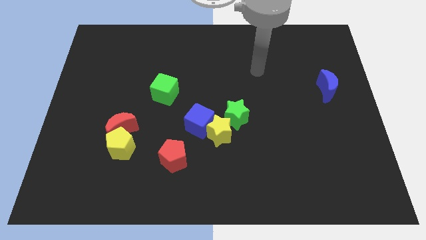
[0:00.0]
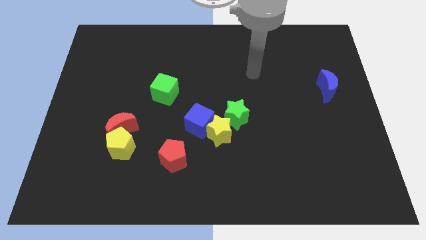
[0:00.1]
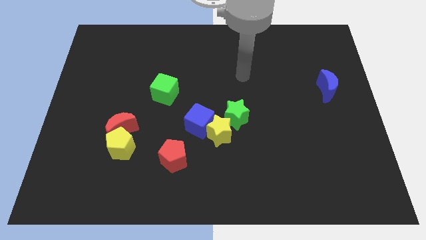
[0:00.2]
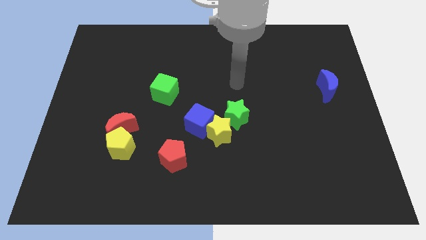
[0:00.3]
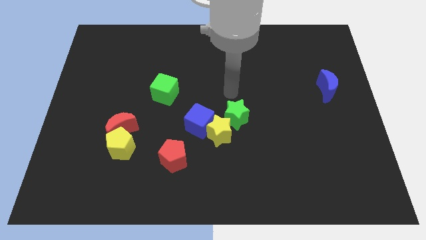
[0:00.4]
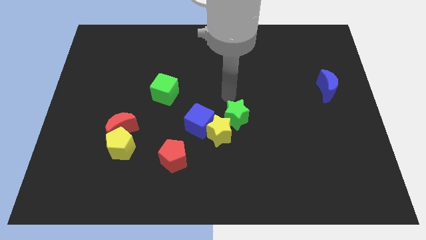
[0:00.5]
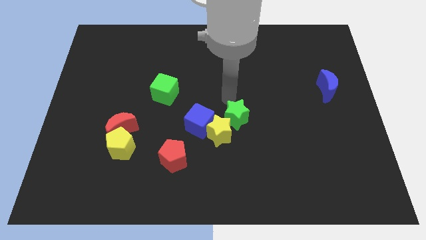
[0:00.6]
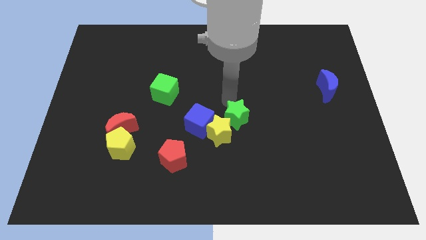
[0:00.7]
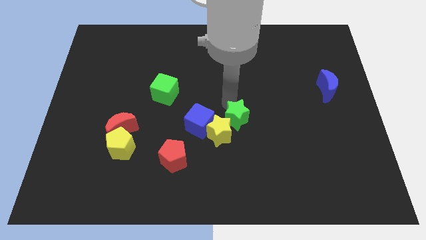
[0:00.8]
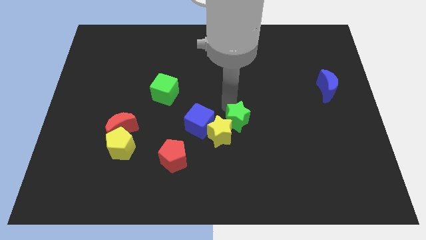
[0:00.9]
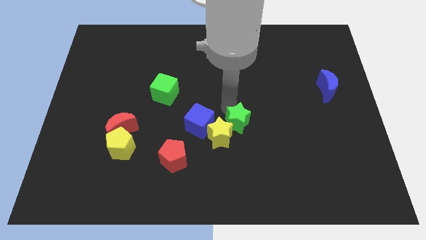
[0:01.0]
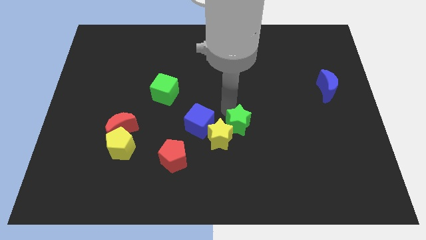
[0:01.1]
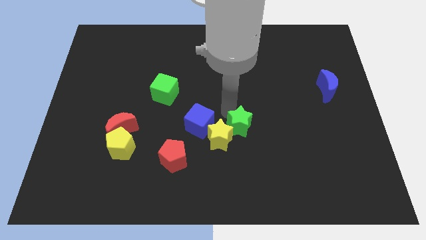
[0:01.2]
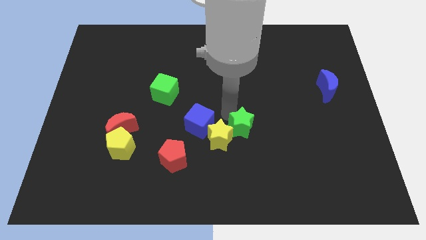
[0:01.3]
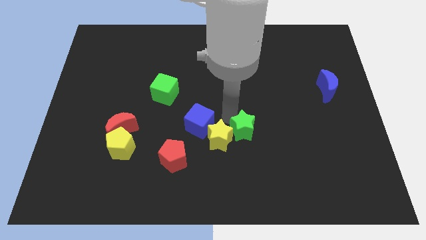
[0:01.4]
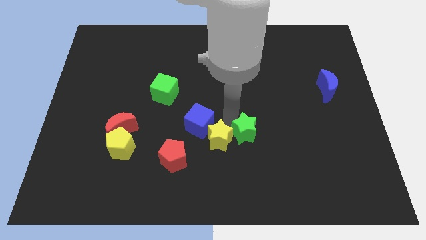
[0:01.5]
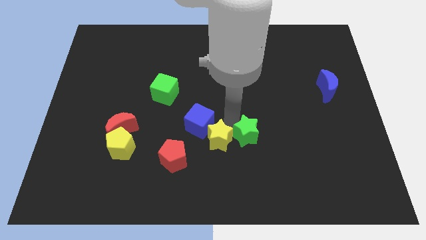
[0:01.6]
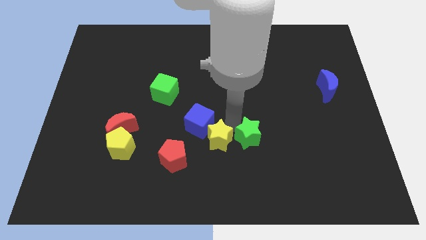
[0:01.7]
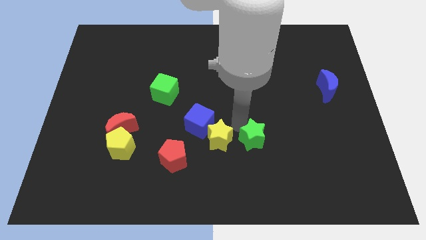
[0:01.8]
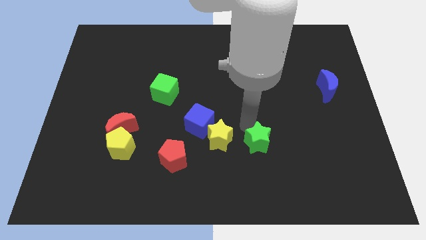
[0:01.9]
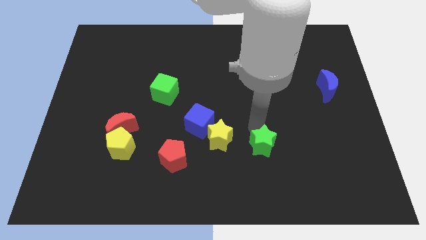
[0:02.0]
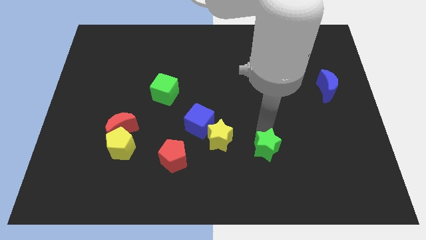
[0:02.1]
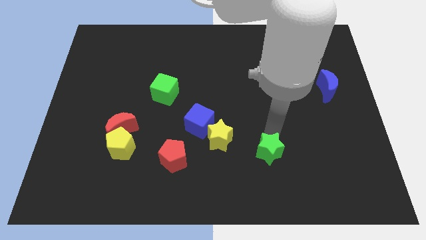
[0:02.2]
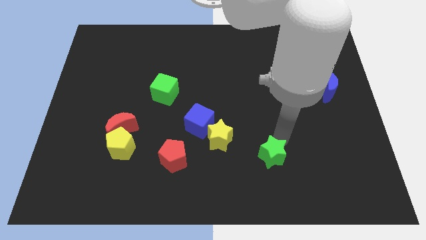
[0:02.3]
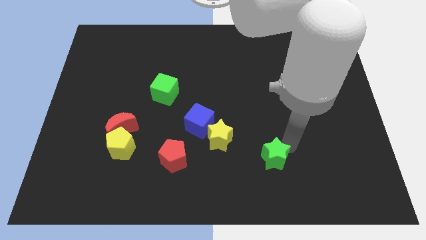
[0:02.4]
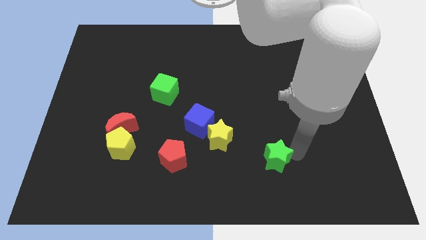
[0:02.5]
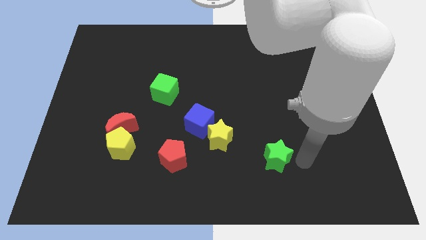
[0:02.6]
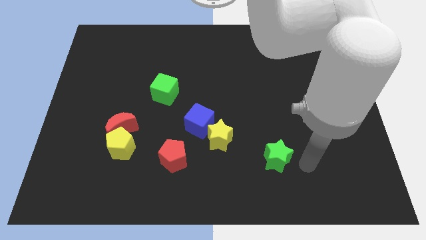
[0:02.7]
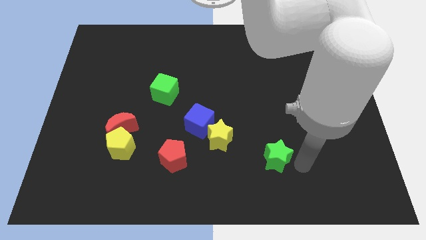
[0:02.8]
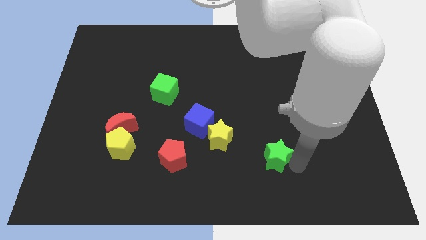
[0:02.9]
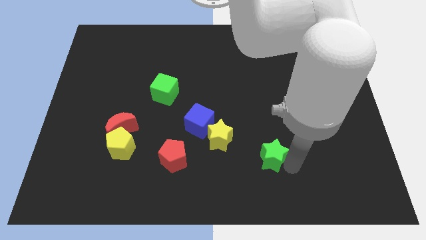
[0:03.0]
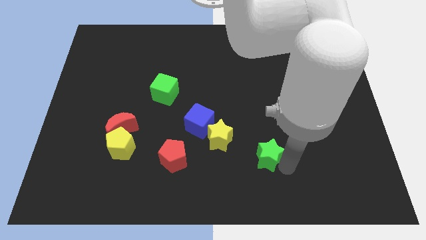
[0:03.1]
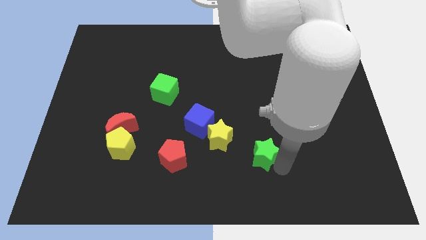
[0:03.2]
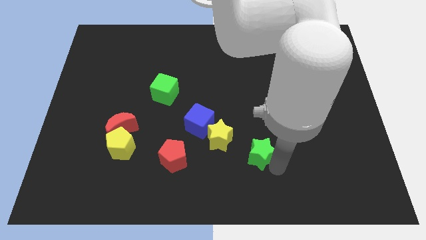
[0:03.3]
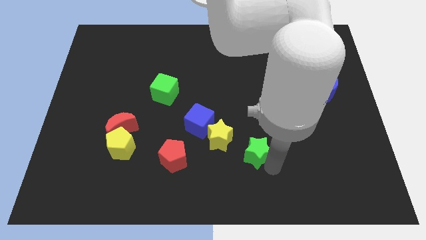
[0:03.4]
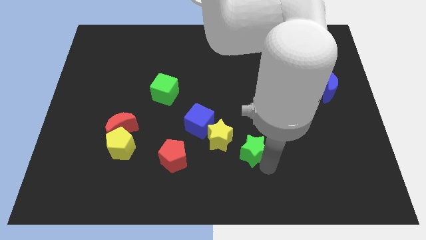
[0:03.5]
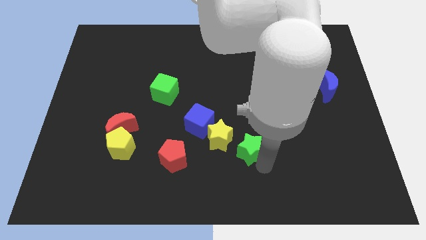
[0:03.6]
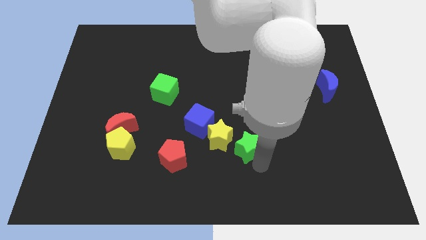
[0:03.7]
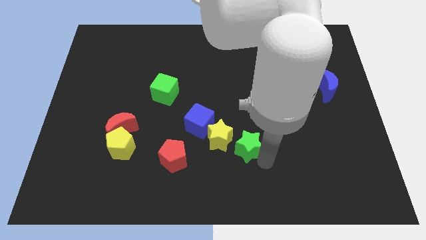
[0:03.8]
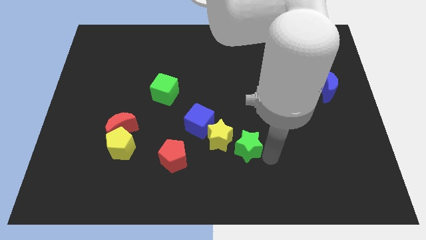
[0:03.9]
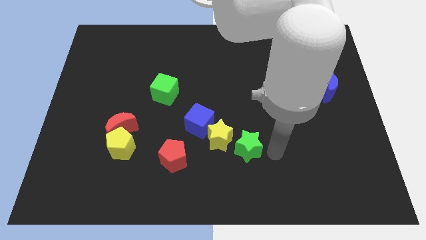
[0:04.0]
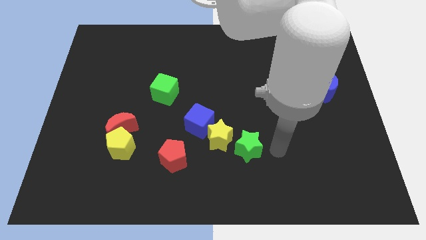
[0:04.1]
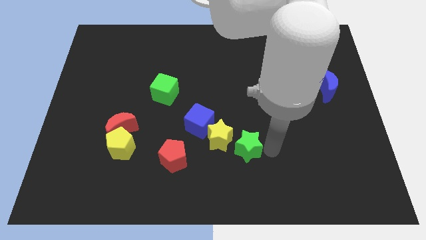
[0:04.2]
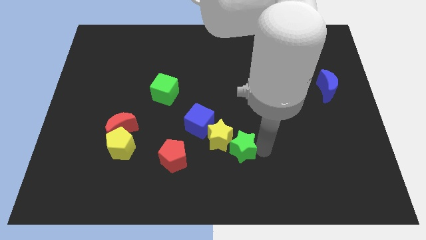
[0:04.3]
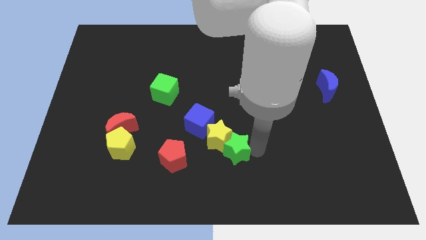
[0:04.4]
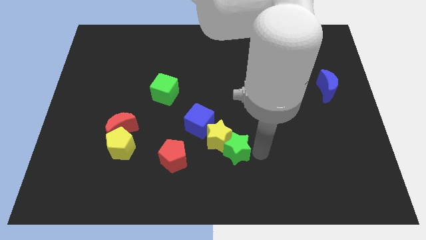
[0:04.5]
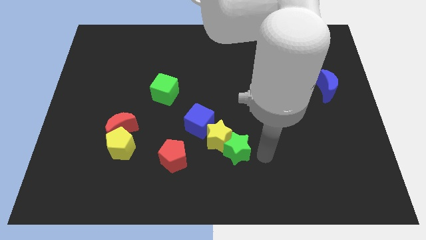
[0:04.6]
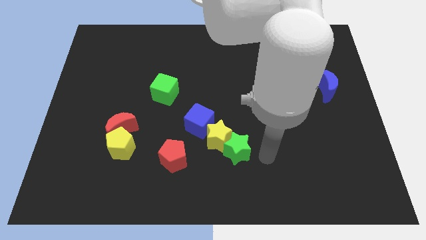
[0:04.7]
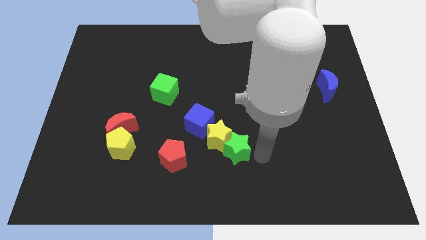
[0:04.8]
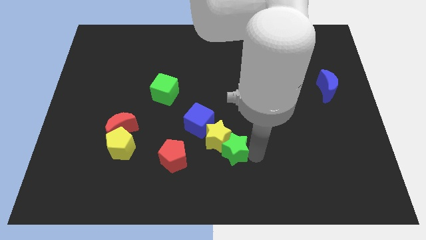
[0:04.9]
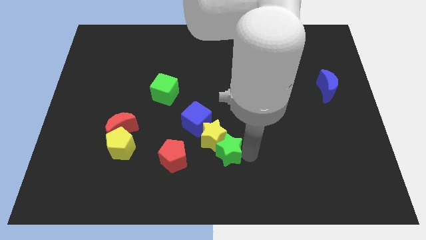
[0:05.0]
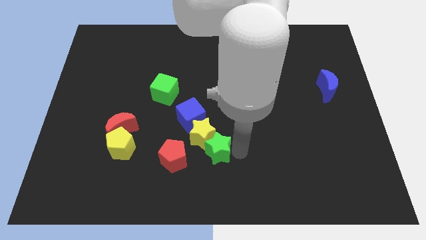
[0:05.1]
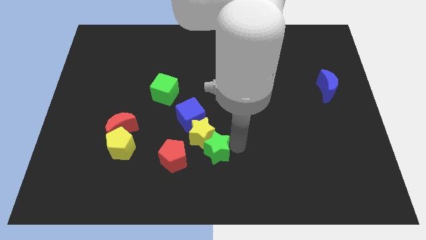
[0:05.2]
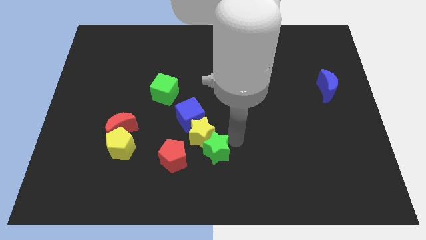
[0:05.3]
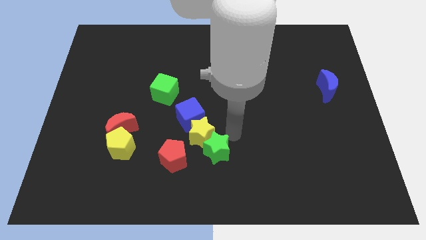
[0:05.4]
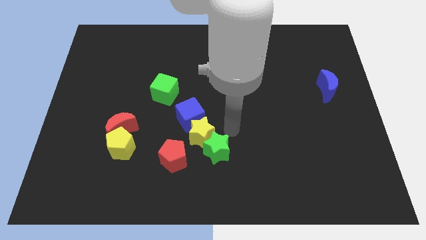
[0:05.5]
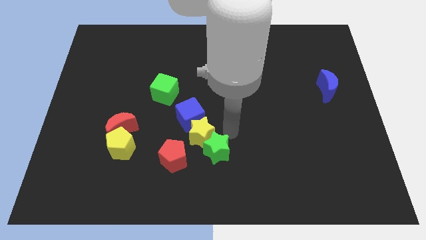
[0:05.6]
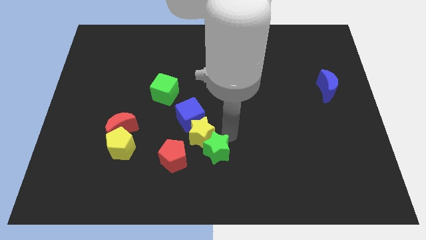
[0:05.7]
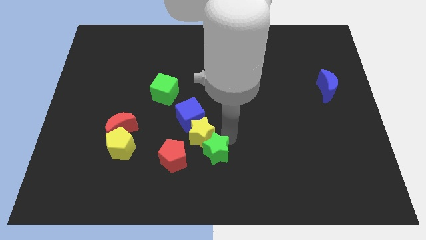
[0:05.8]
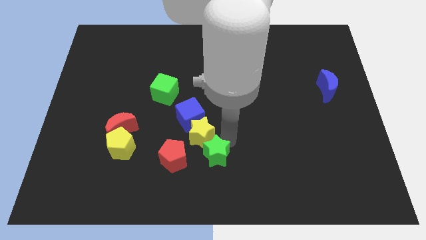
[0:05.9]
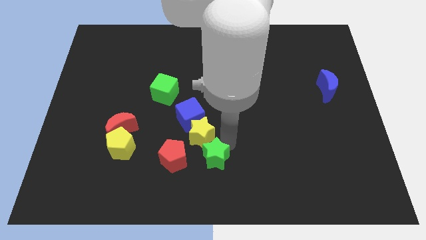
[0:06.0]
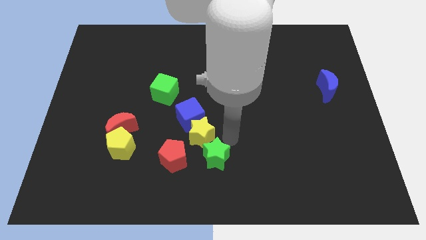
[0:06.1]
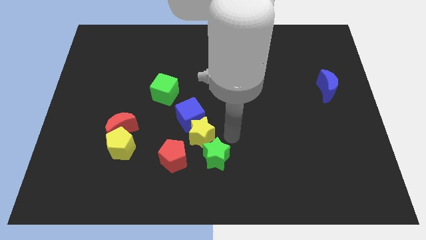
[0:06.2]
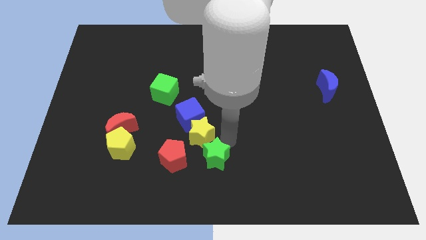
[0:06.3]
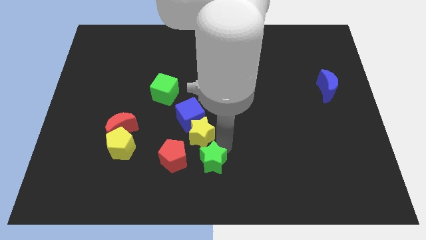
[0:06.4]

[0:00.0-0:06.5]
slide the green star to the bottom right of the red pentagon

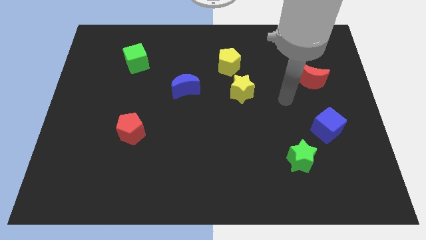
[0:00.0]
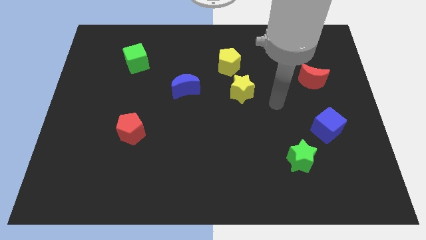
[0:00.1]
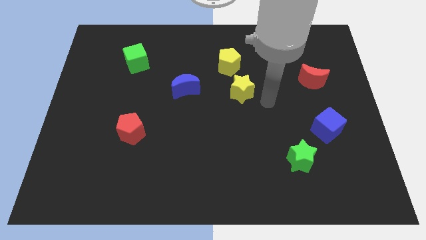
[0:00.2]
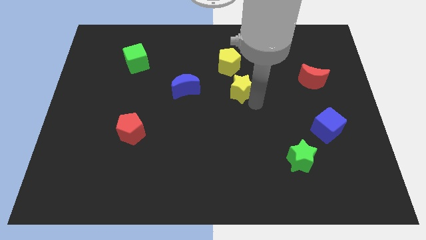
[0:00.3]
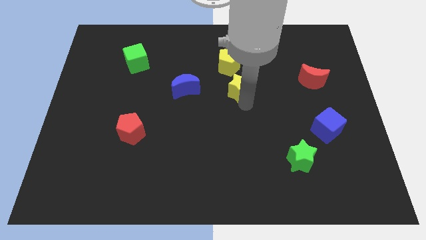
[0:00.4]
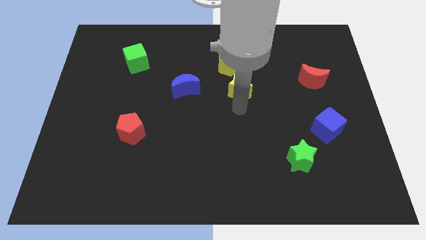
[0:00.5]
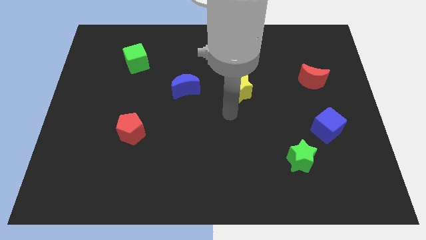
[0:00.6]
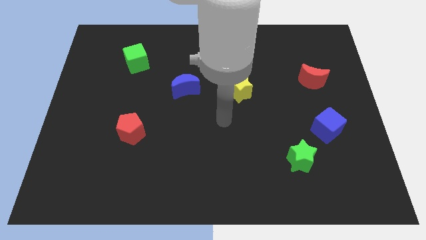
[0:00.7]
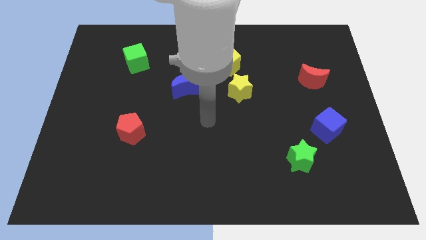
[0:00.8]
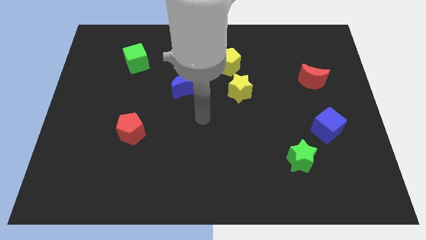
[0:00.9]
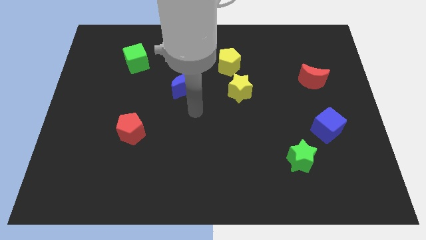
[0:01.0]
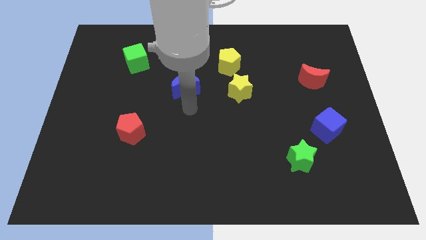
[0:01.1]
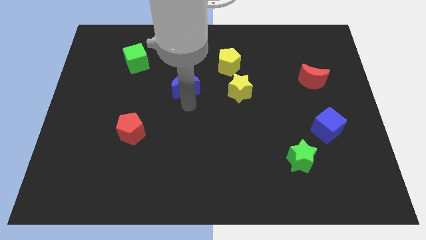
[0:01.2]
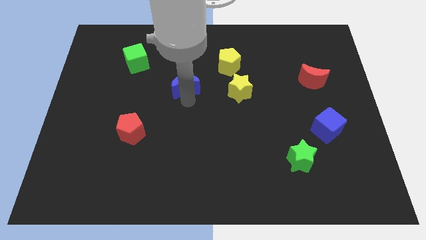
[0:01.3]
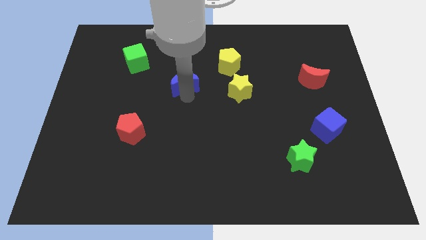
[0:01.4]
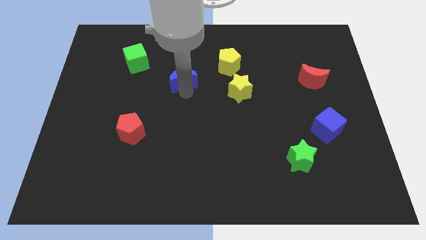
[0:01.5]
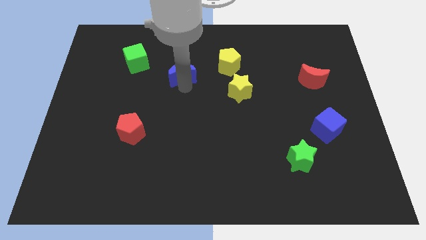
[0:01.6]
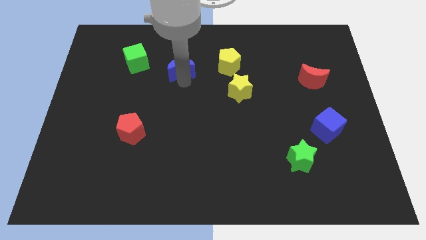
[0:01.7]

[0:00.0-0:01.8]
put the blue moon right of the green cube
